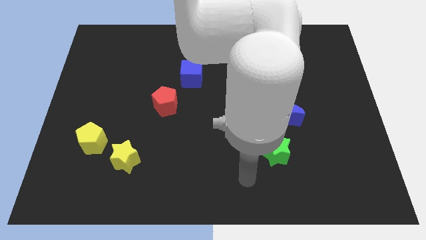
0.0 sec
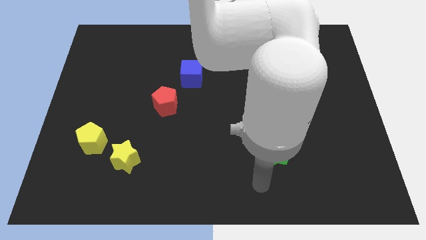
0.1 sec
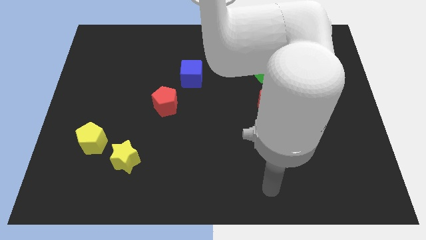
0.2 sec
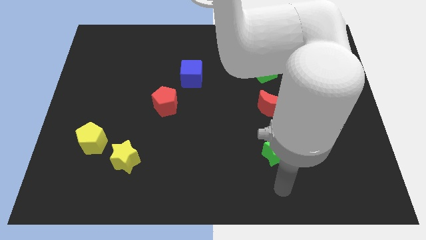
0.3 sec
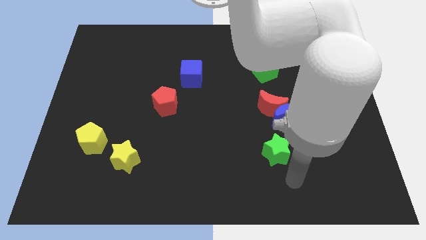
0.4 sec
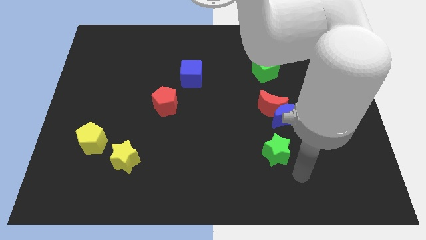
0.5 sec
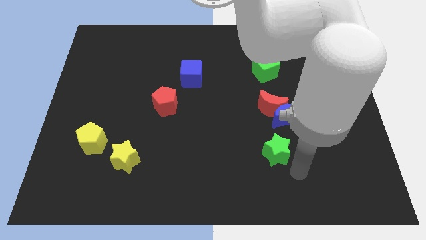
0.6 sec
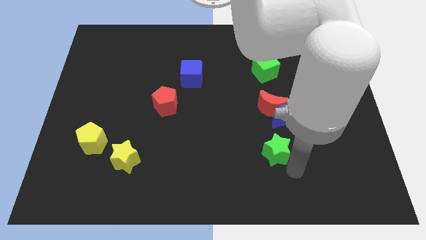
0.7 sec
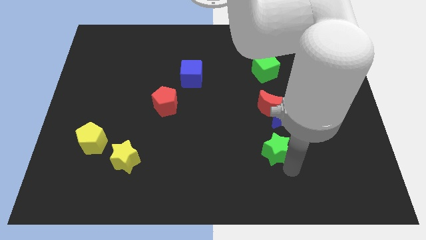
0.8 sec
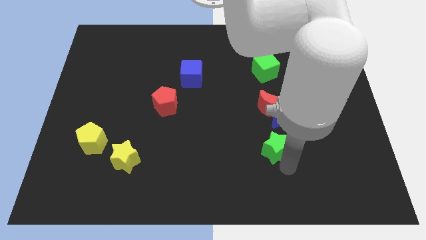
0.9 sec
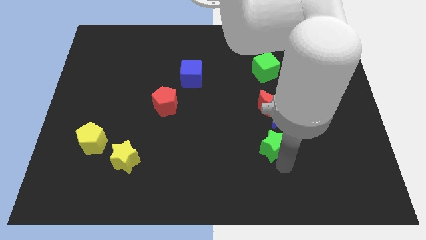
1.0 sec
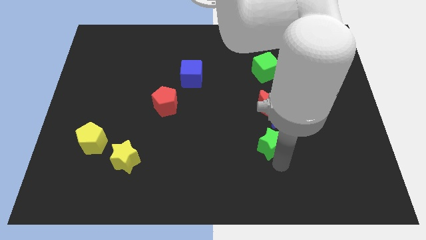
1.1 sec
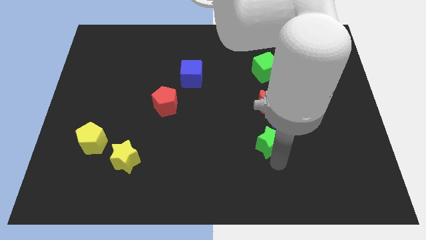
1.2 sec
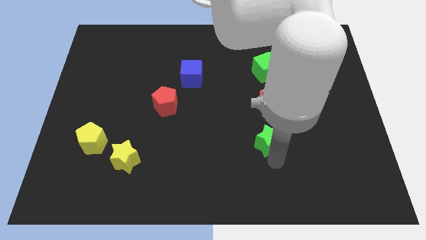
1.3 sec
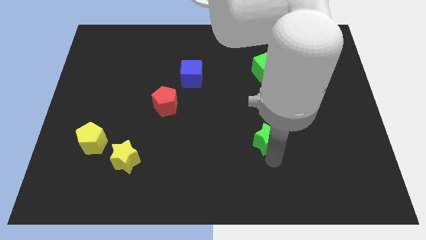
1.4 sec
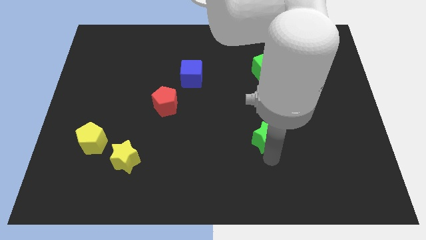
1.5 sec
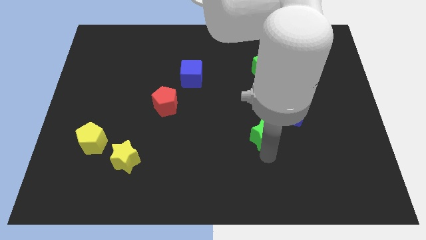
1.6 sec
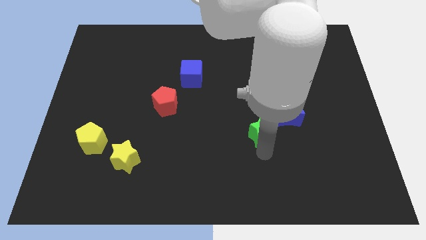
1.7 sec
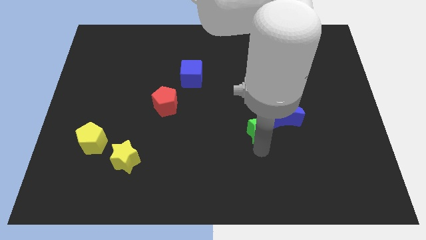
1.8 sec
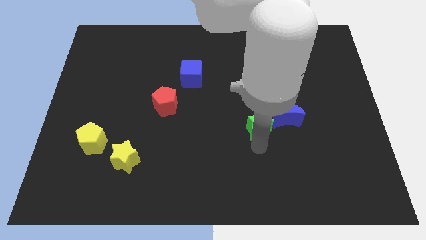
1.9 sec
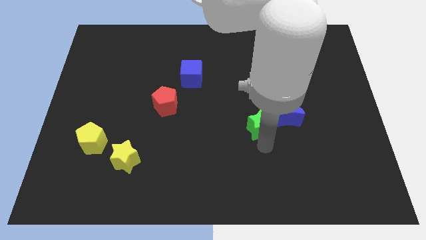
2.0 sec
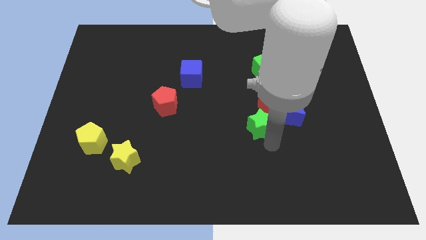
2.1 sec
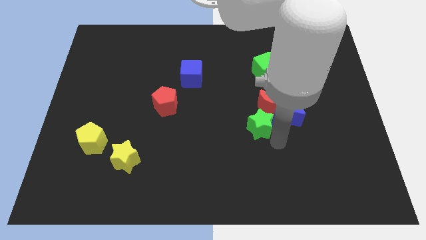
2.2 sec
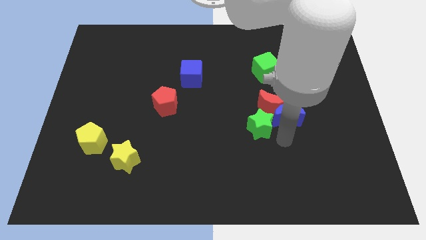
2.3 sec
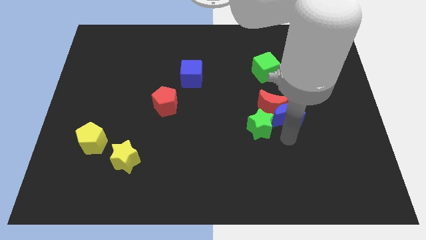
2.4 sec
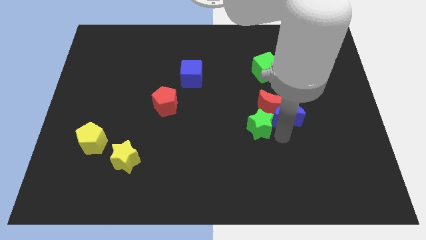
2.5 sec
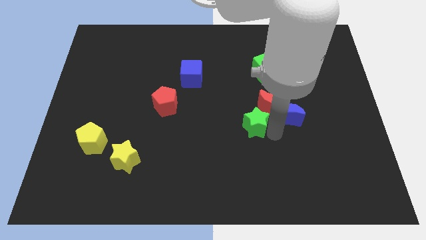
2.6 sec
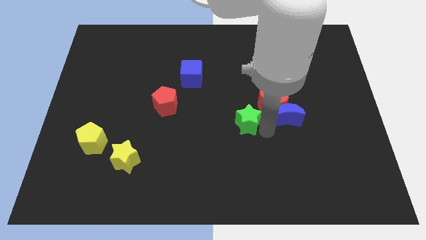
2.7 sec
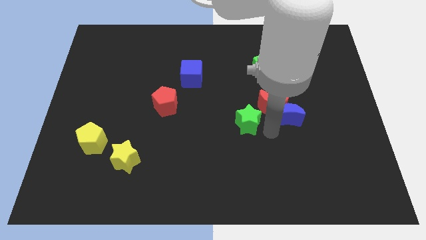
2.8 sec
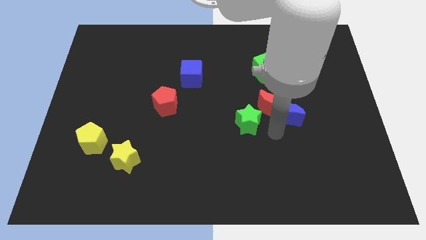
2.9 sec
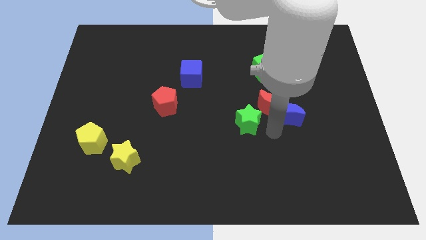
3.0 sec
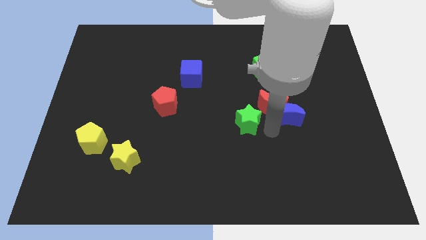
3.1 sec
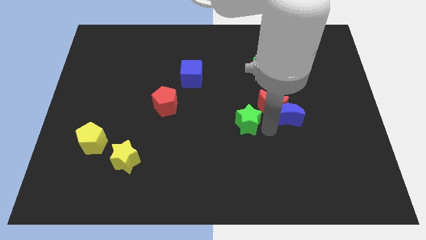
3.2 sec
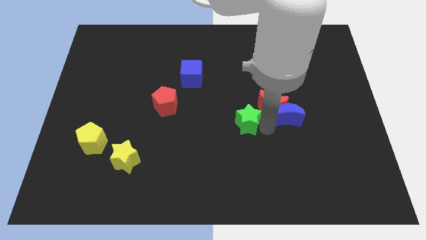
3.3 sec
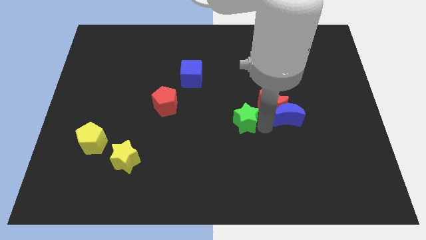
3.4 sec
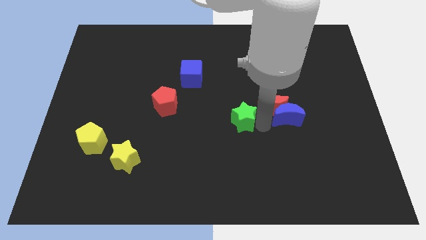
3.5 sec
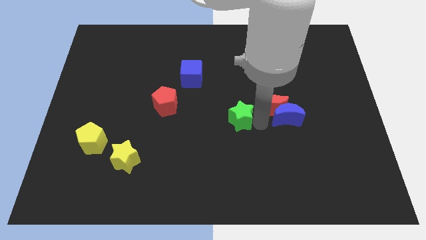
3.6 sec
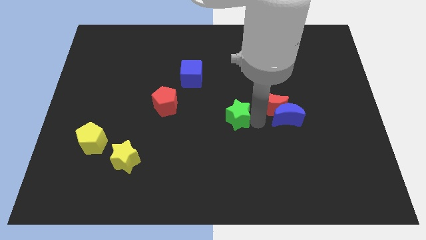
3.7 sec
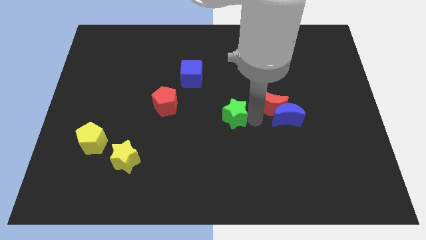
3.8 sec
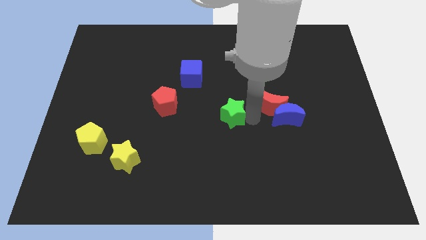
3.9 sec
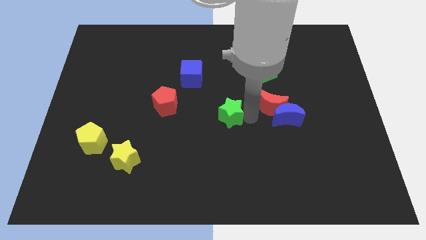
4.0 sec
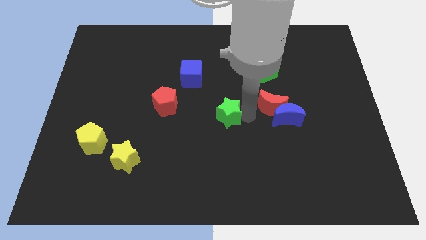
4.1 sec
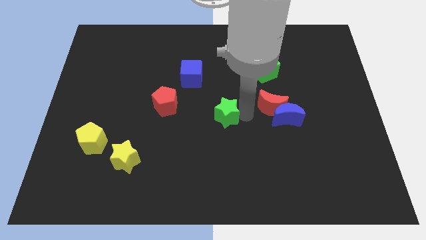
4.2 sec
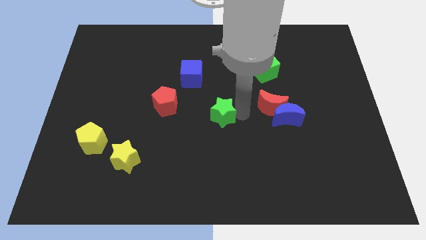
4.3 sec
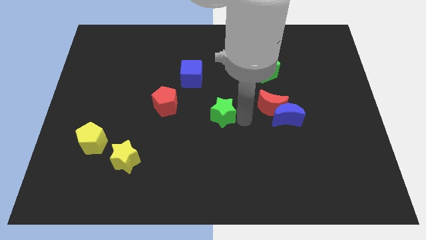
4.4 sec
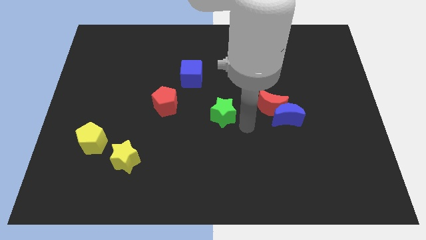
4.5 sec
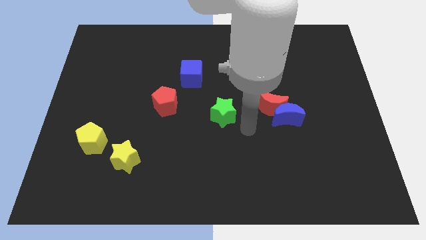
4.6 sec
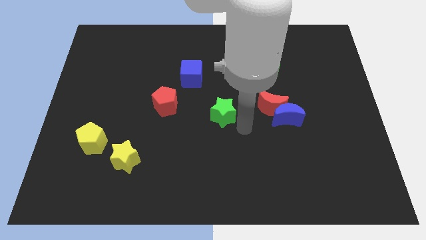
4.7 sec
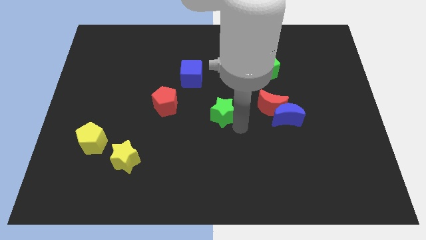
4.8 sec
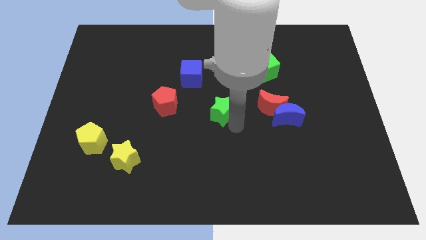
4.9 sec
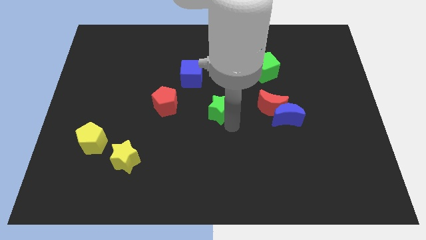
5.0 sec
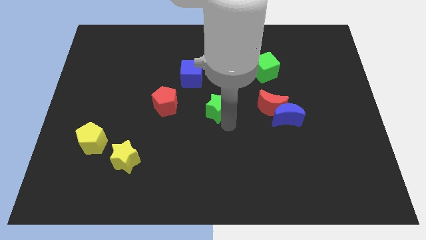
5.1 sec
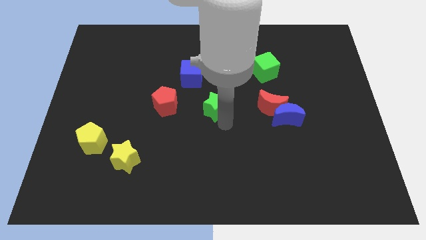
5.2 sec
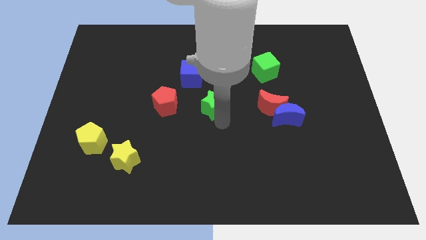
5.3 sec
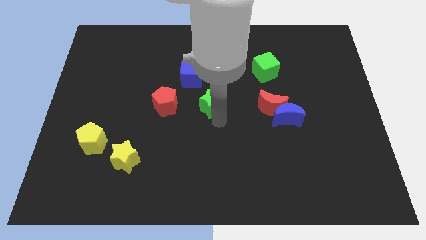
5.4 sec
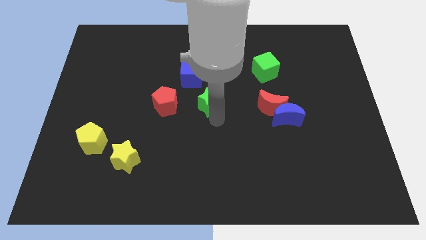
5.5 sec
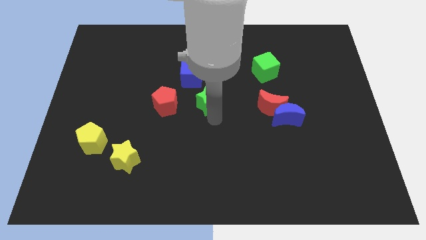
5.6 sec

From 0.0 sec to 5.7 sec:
slide the green star up and then left

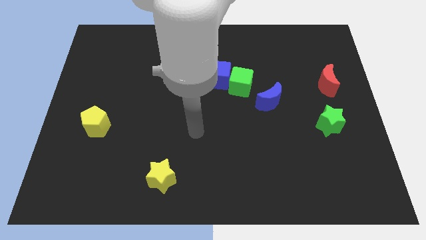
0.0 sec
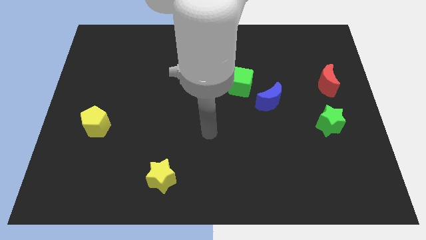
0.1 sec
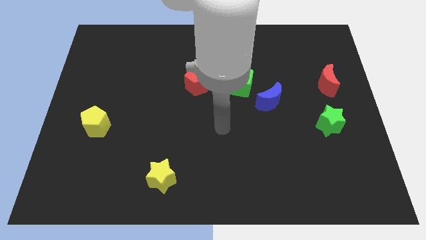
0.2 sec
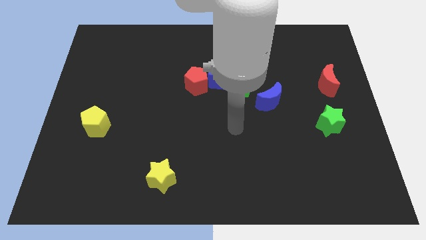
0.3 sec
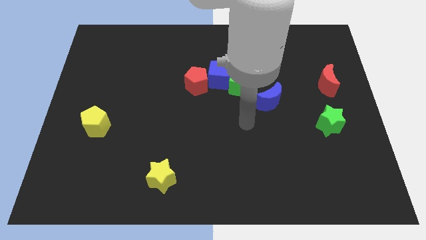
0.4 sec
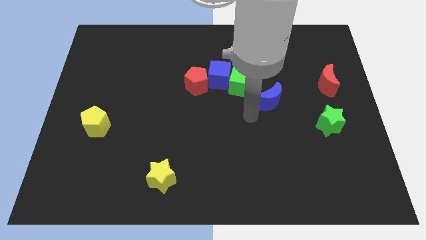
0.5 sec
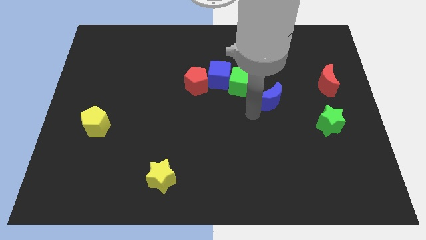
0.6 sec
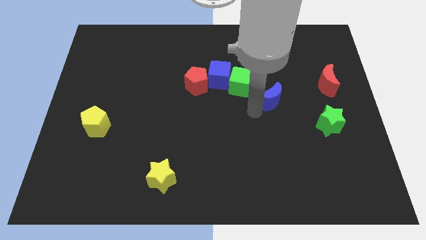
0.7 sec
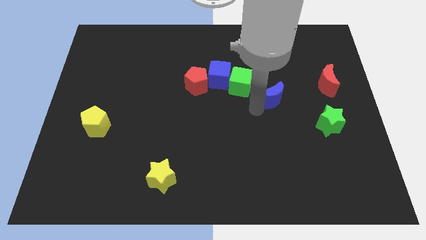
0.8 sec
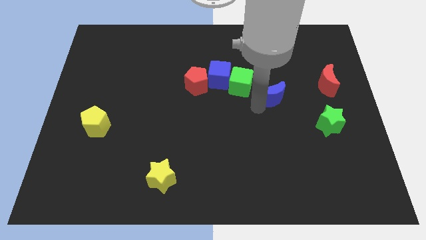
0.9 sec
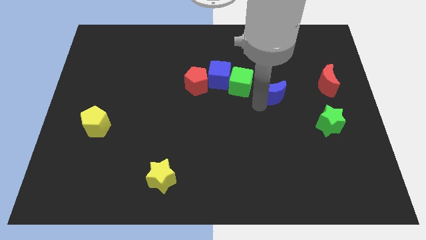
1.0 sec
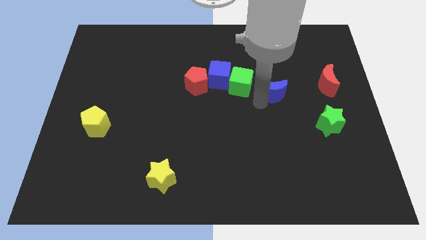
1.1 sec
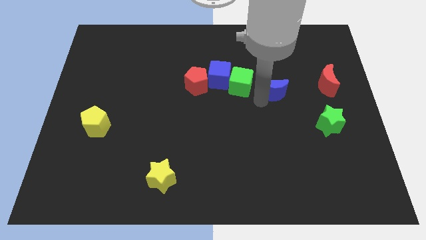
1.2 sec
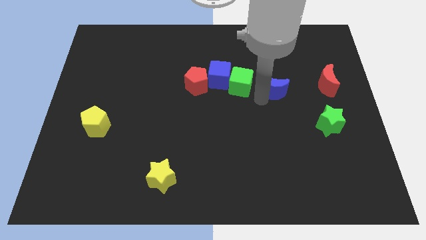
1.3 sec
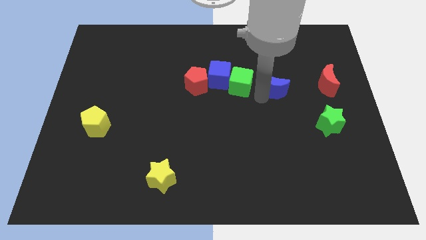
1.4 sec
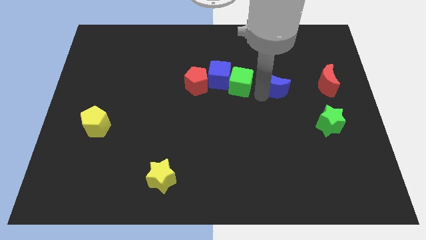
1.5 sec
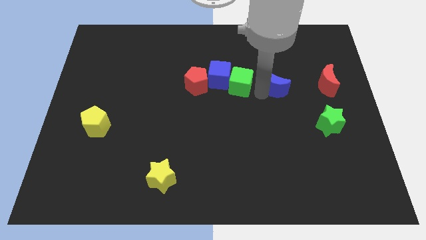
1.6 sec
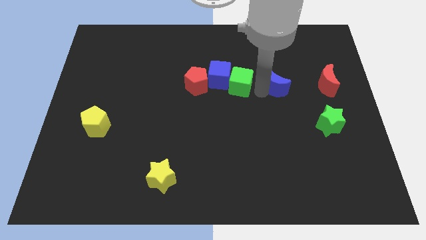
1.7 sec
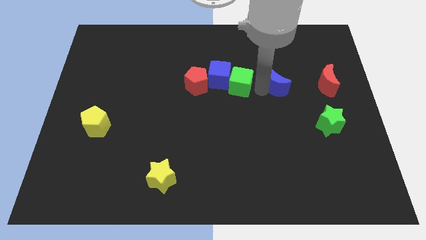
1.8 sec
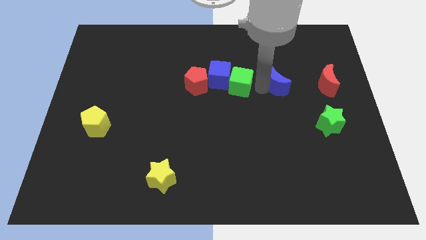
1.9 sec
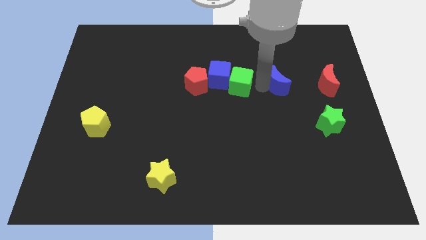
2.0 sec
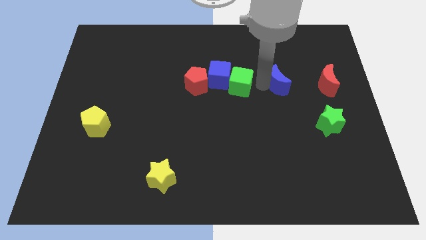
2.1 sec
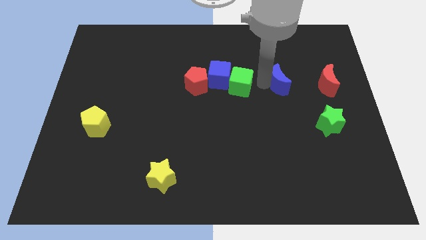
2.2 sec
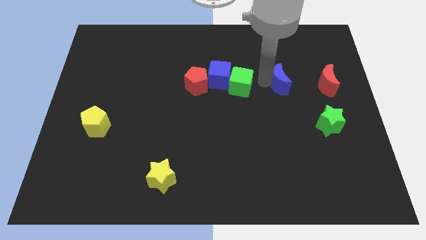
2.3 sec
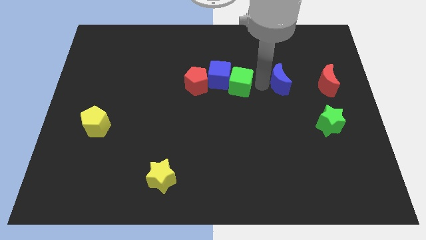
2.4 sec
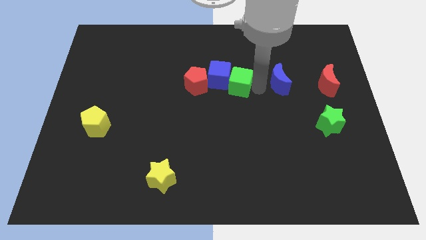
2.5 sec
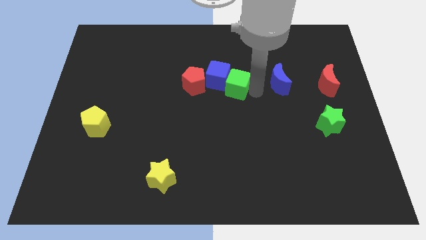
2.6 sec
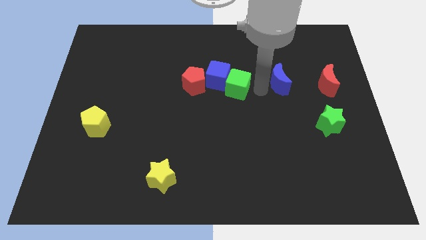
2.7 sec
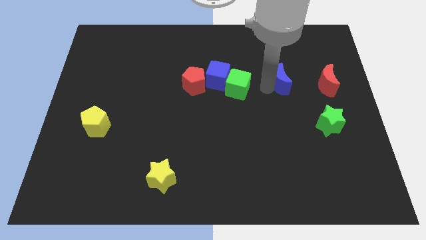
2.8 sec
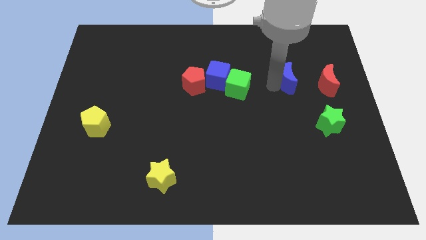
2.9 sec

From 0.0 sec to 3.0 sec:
slightly push the blue moon up and right
